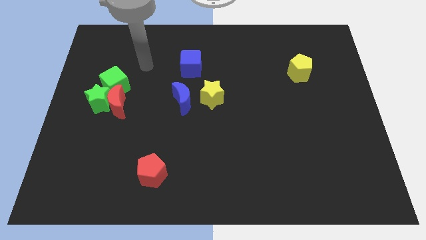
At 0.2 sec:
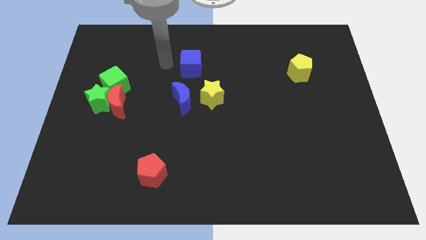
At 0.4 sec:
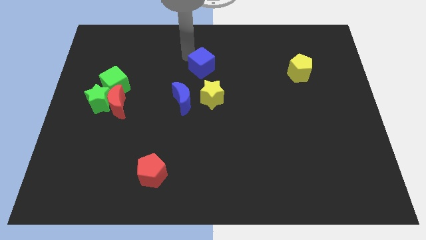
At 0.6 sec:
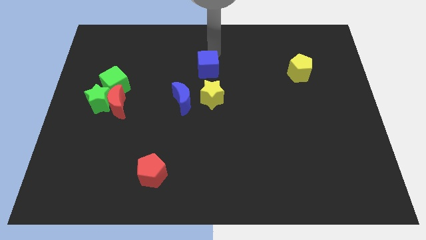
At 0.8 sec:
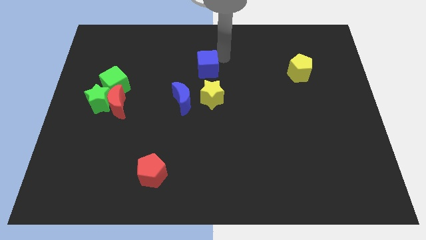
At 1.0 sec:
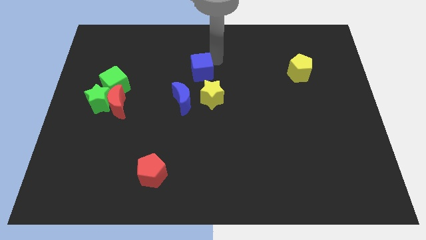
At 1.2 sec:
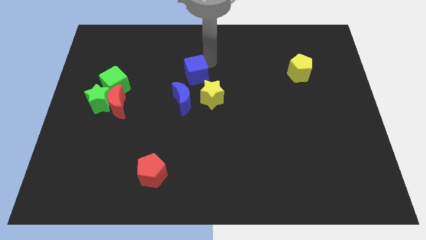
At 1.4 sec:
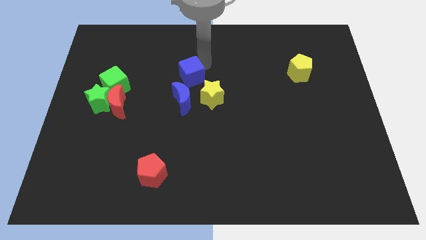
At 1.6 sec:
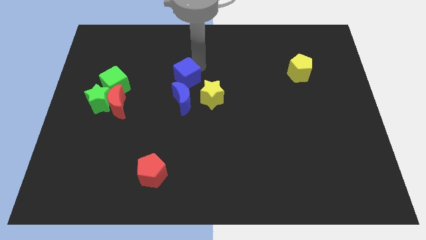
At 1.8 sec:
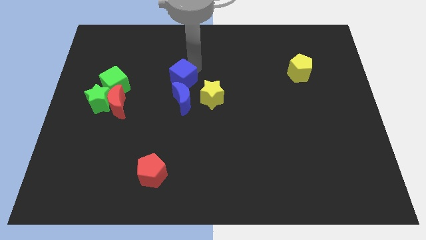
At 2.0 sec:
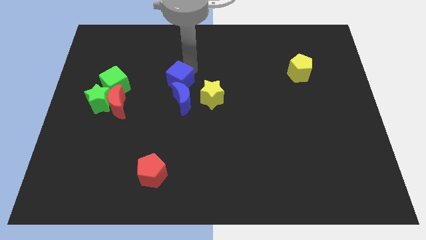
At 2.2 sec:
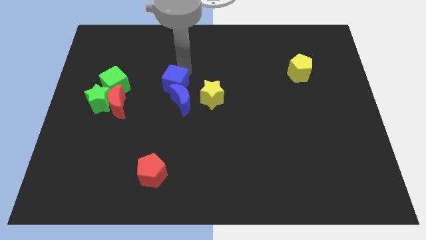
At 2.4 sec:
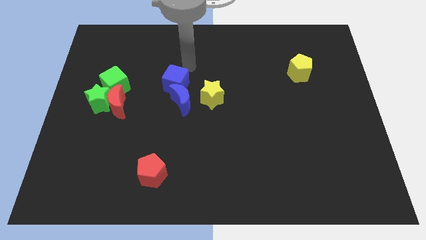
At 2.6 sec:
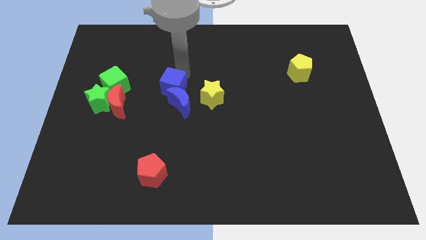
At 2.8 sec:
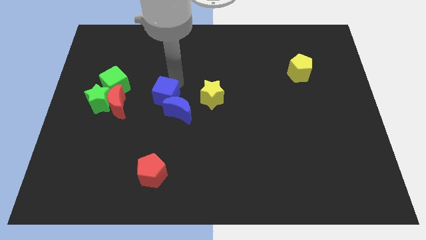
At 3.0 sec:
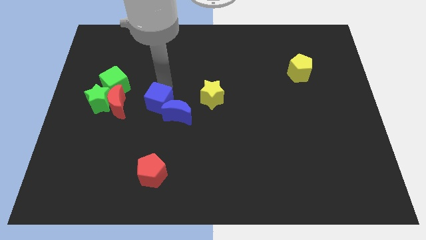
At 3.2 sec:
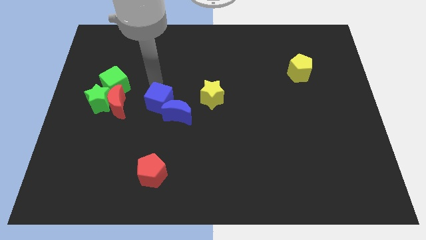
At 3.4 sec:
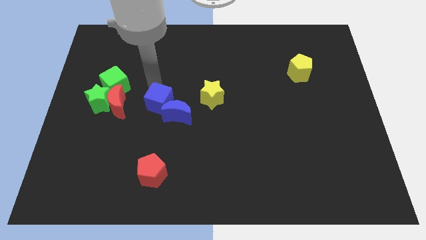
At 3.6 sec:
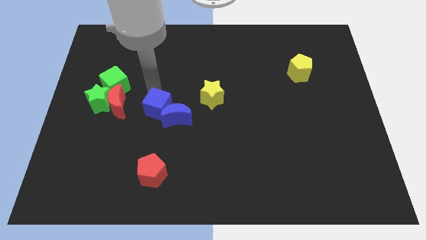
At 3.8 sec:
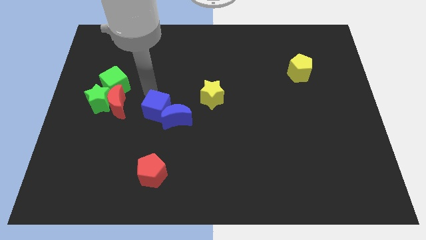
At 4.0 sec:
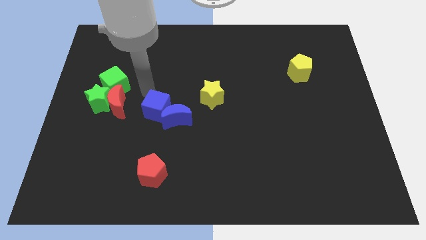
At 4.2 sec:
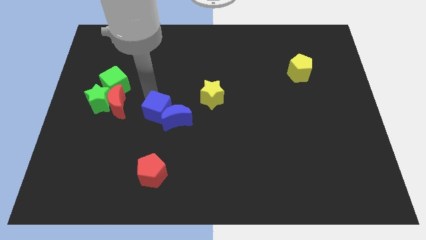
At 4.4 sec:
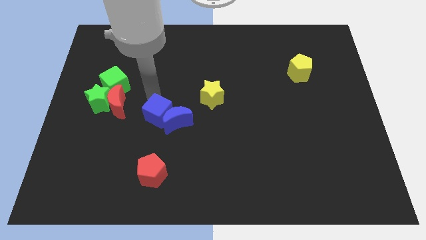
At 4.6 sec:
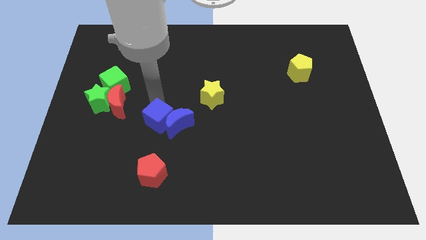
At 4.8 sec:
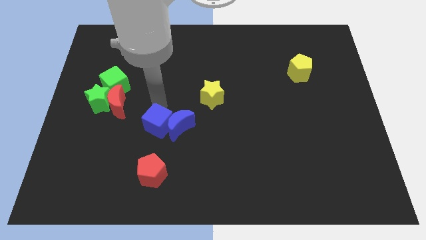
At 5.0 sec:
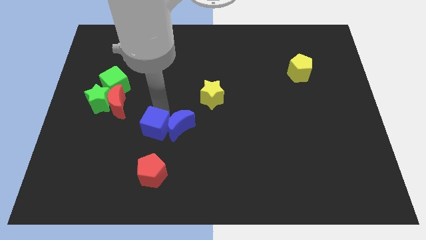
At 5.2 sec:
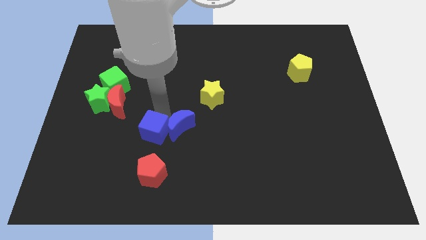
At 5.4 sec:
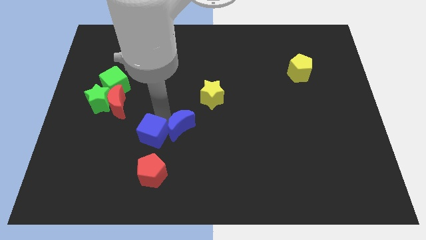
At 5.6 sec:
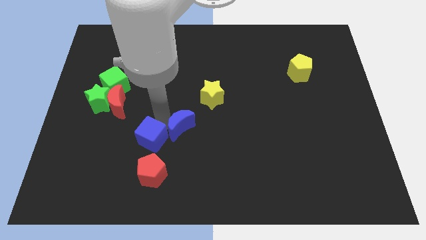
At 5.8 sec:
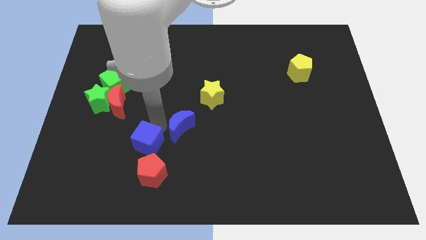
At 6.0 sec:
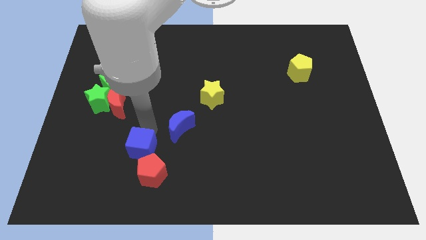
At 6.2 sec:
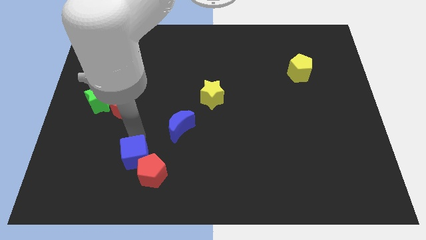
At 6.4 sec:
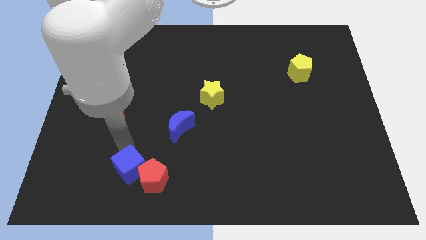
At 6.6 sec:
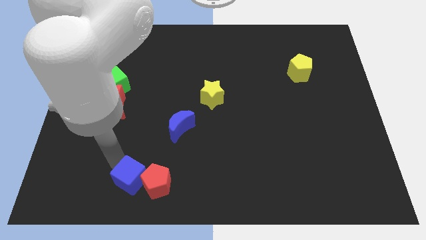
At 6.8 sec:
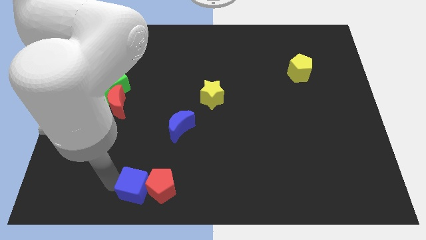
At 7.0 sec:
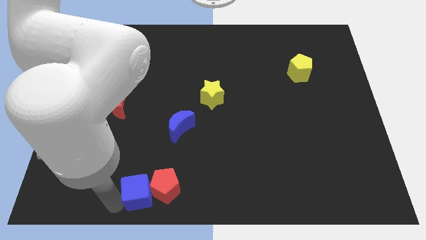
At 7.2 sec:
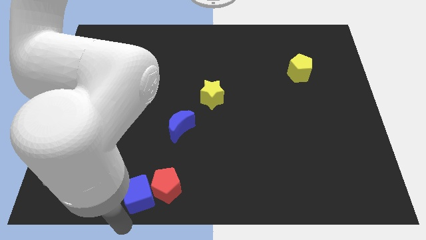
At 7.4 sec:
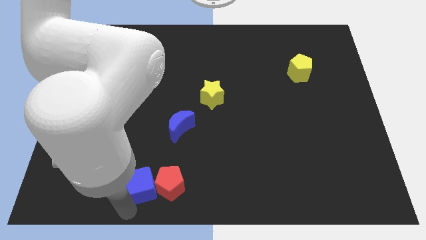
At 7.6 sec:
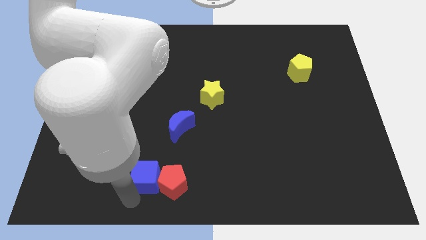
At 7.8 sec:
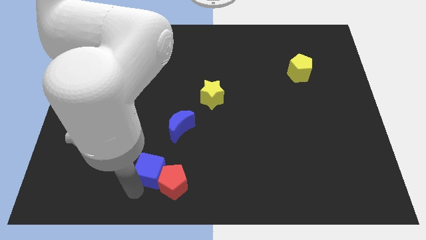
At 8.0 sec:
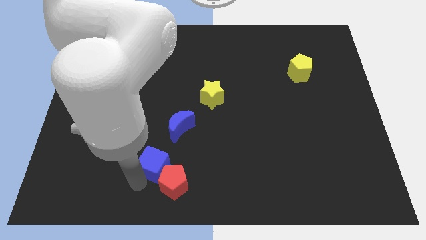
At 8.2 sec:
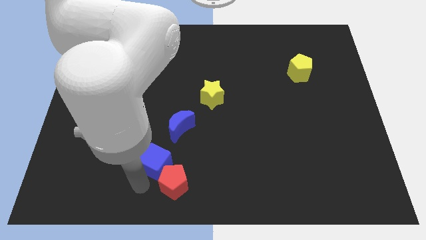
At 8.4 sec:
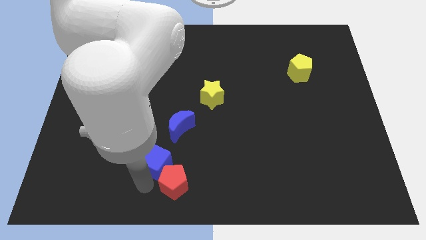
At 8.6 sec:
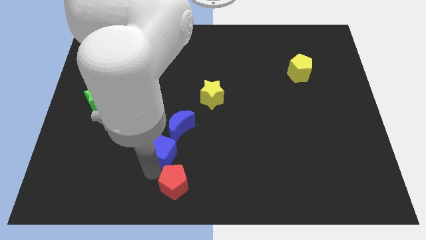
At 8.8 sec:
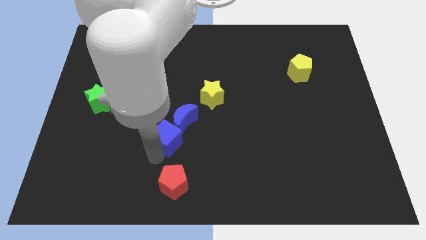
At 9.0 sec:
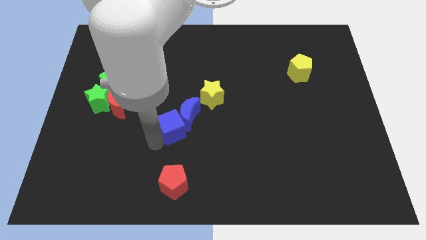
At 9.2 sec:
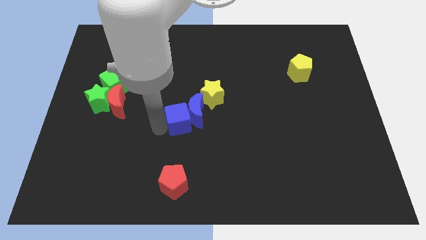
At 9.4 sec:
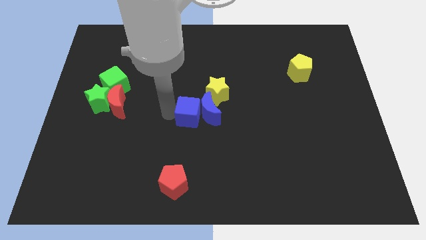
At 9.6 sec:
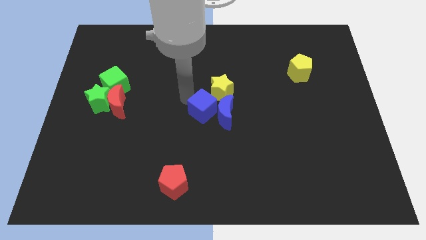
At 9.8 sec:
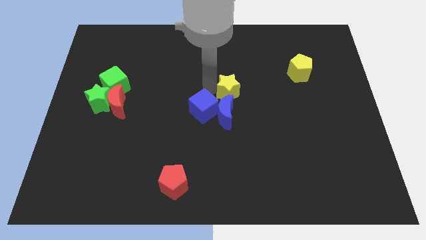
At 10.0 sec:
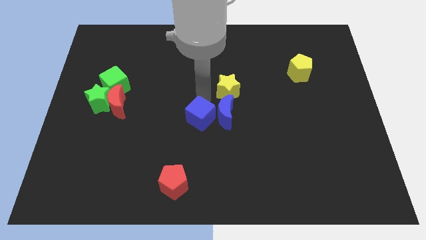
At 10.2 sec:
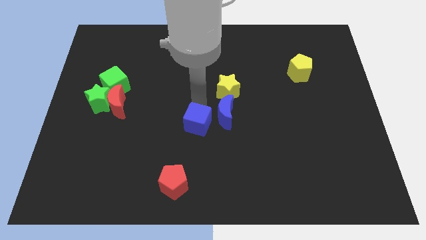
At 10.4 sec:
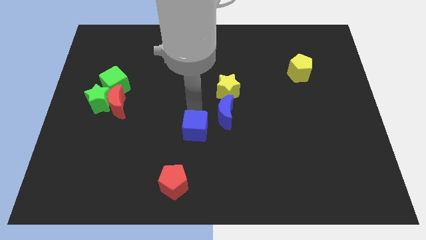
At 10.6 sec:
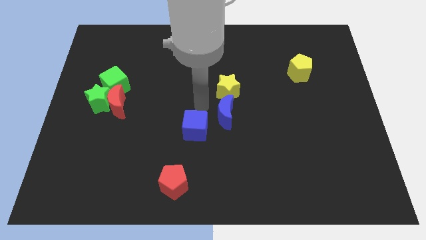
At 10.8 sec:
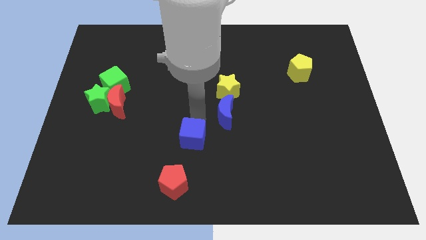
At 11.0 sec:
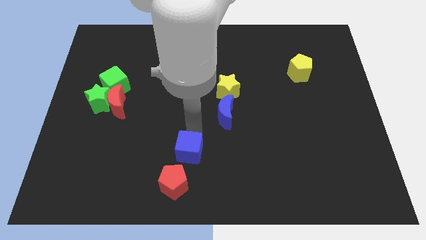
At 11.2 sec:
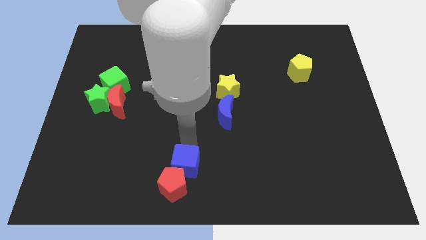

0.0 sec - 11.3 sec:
push the blue cube to the bottom side

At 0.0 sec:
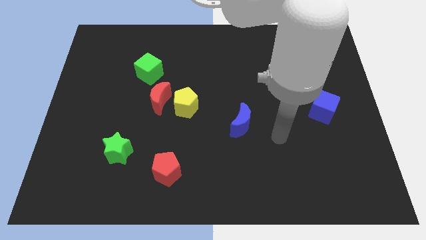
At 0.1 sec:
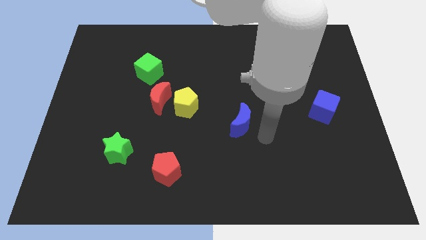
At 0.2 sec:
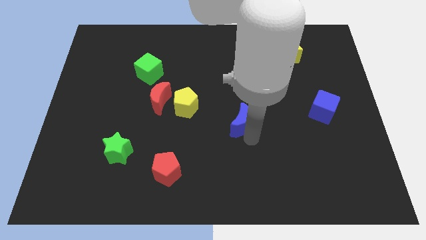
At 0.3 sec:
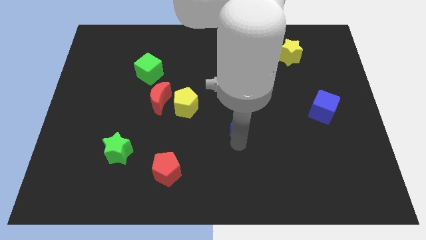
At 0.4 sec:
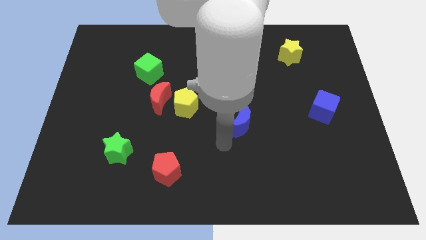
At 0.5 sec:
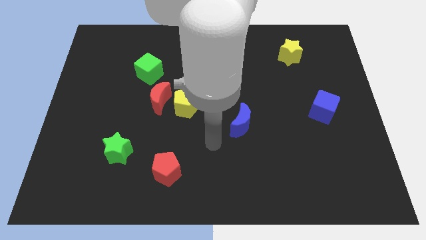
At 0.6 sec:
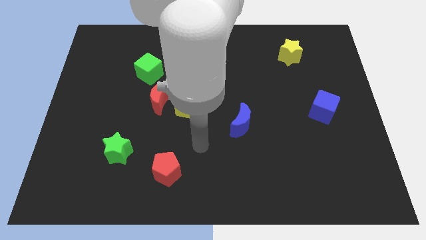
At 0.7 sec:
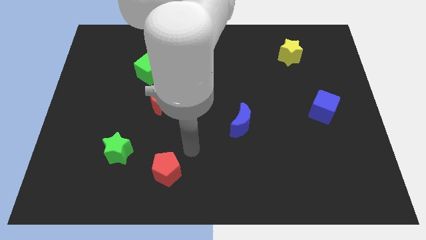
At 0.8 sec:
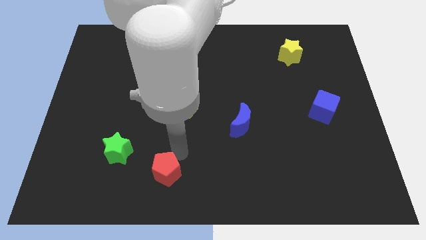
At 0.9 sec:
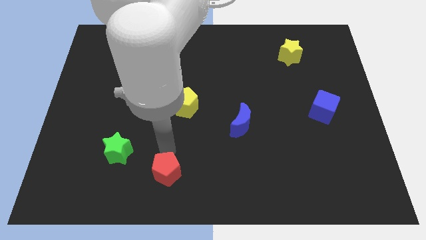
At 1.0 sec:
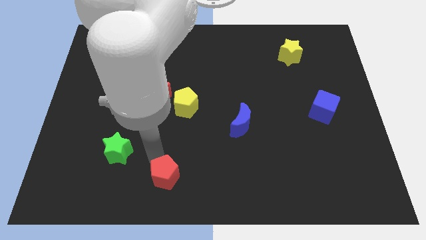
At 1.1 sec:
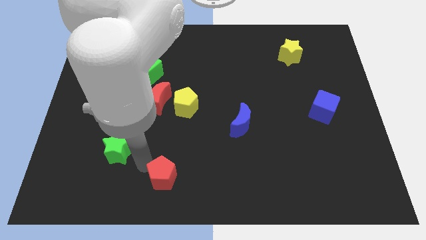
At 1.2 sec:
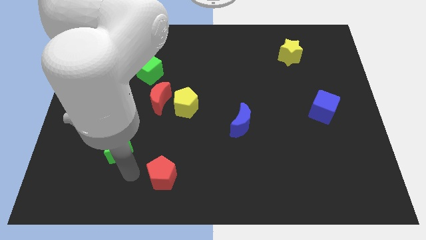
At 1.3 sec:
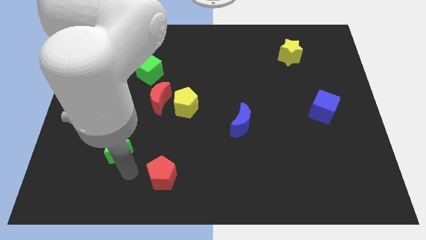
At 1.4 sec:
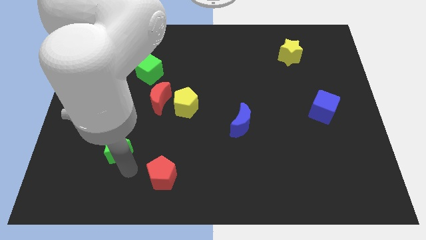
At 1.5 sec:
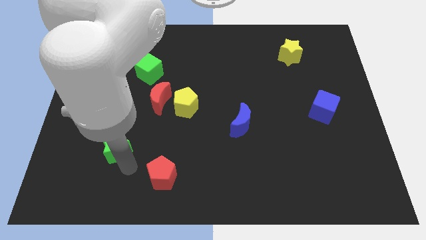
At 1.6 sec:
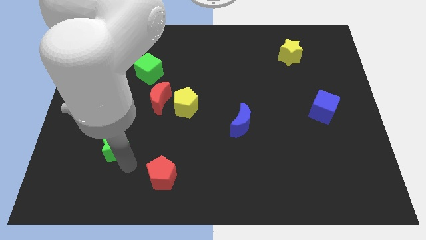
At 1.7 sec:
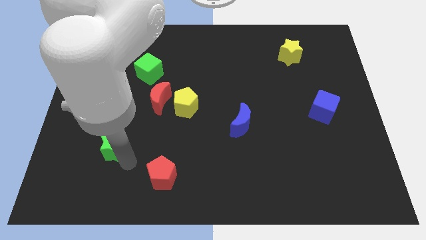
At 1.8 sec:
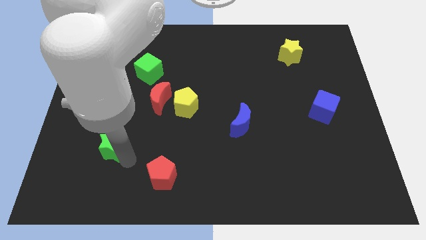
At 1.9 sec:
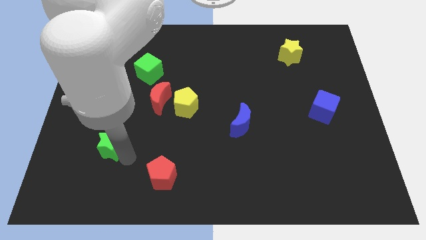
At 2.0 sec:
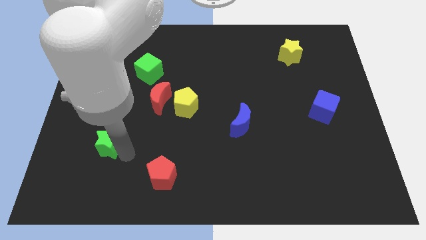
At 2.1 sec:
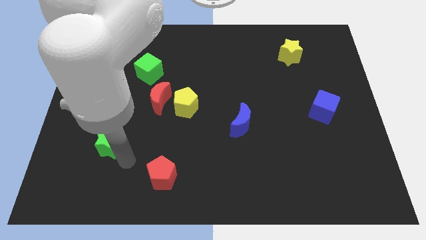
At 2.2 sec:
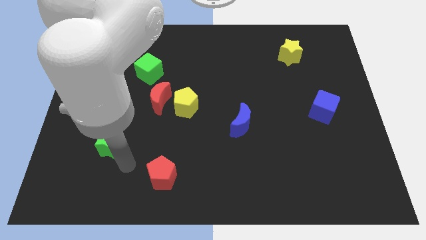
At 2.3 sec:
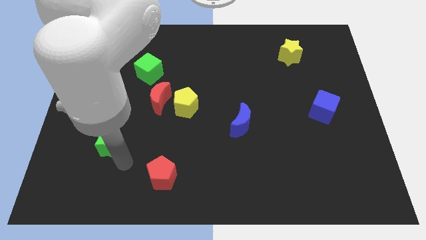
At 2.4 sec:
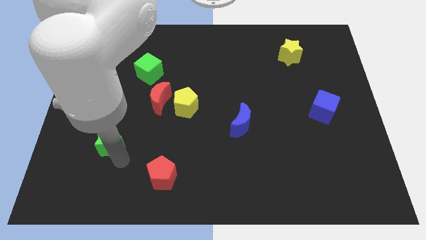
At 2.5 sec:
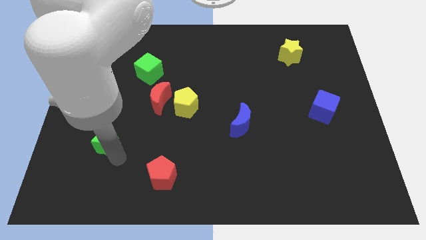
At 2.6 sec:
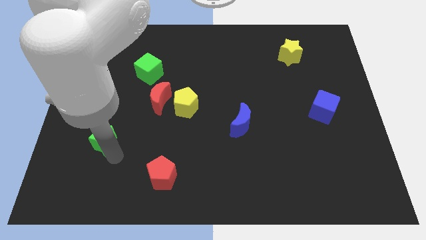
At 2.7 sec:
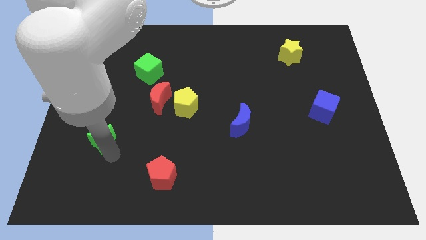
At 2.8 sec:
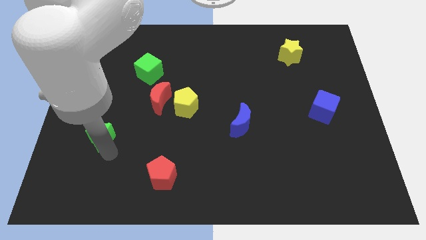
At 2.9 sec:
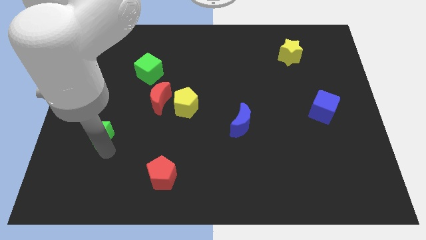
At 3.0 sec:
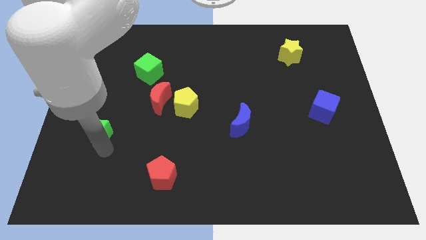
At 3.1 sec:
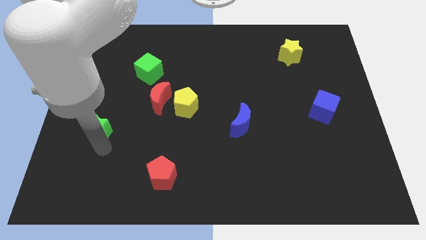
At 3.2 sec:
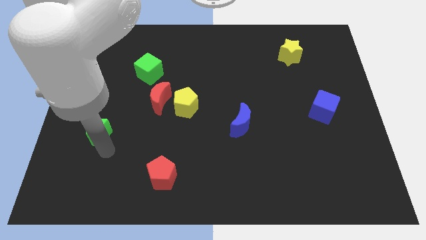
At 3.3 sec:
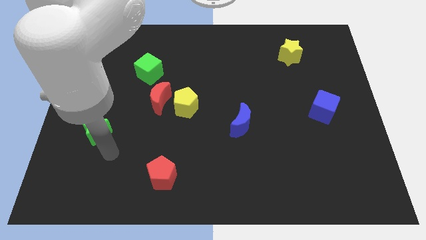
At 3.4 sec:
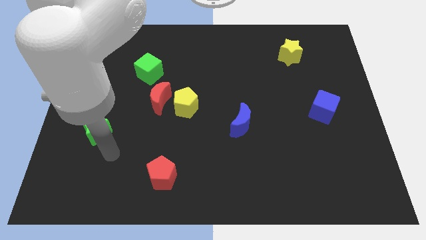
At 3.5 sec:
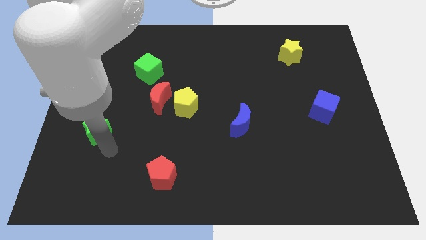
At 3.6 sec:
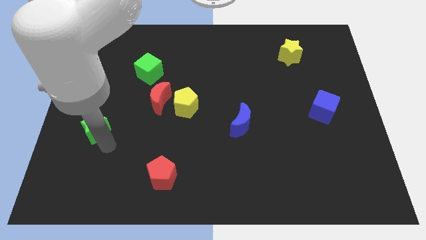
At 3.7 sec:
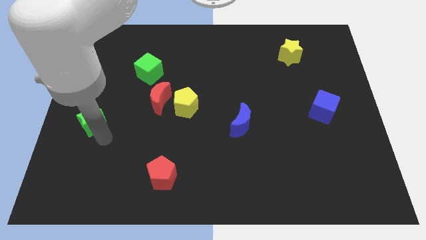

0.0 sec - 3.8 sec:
slide the green star to the left side of the board
